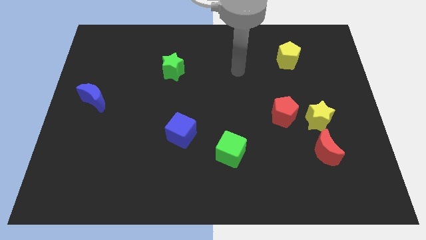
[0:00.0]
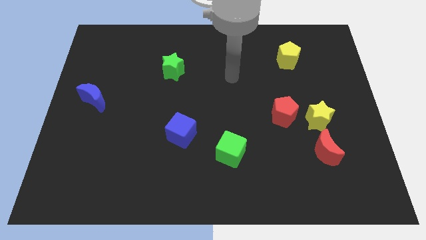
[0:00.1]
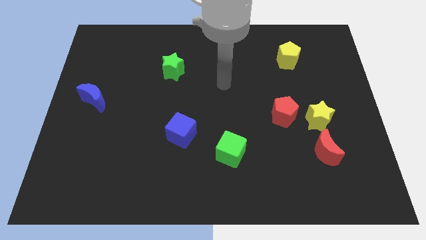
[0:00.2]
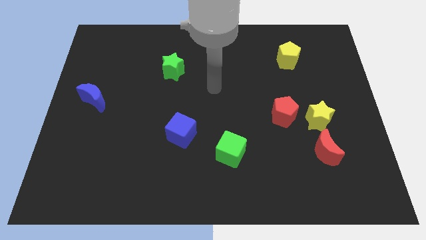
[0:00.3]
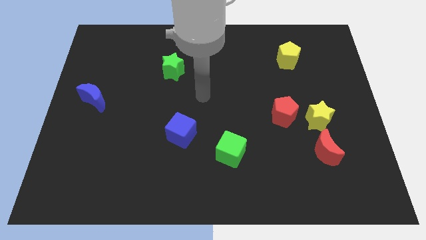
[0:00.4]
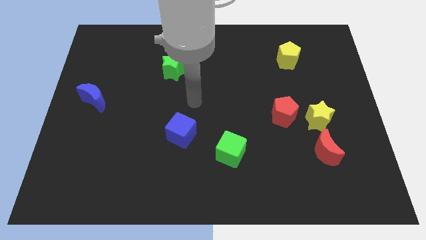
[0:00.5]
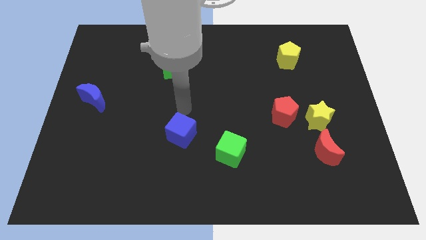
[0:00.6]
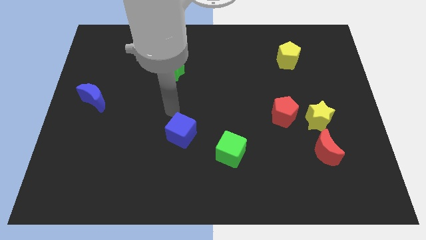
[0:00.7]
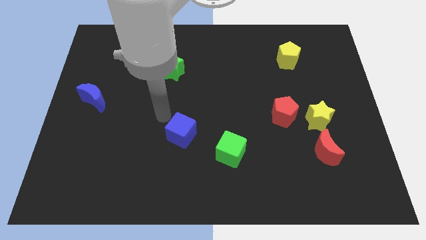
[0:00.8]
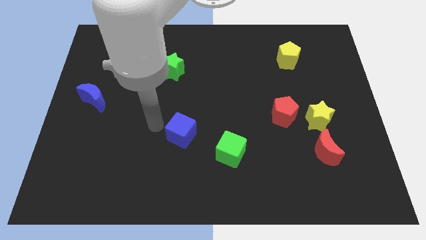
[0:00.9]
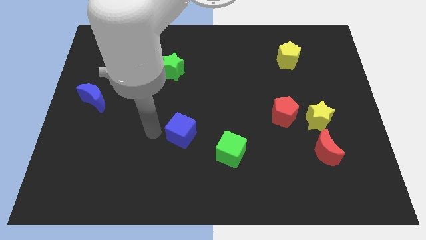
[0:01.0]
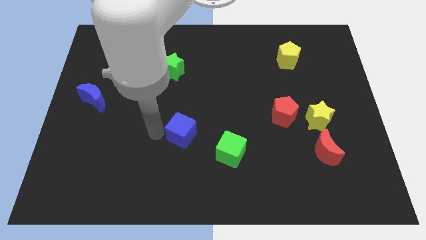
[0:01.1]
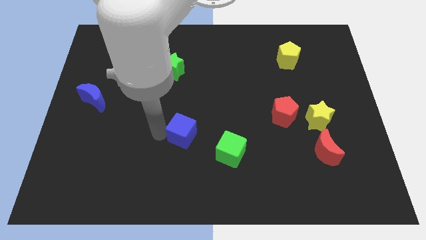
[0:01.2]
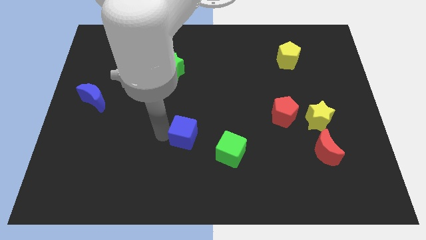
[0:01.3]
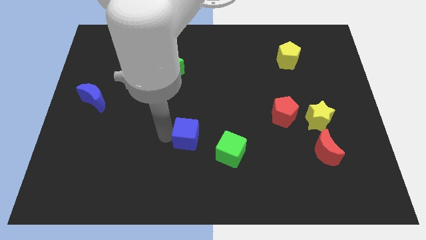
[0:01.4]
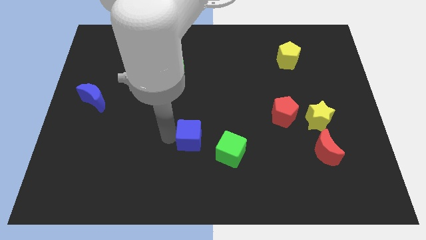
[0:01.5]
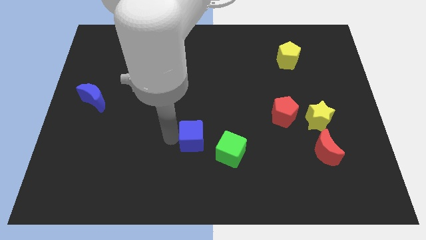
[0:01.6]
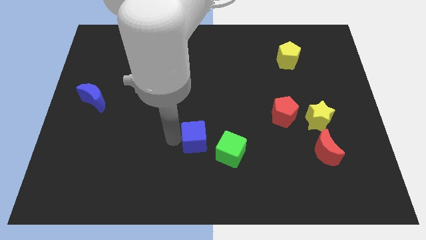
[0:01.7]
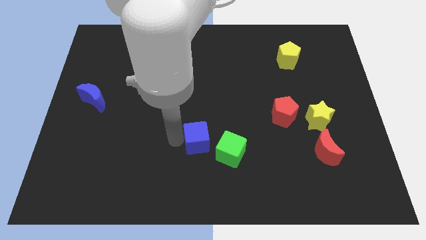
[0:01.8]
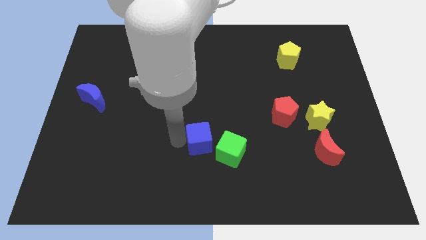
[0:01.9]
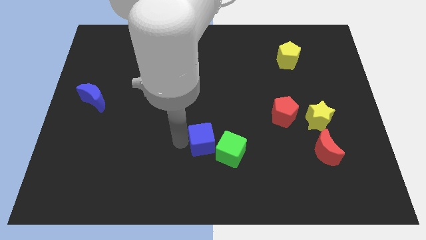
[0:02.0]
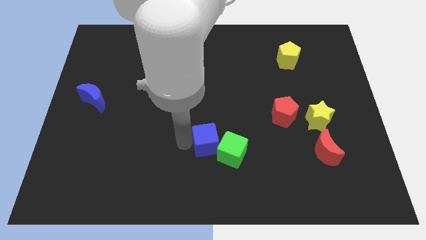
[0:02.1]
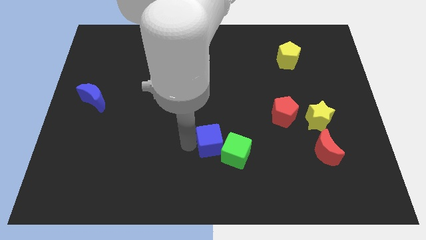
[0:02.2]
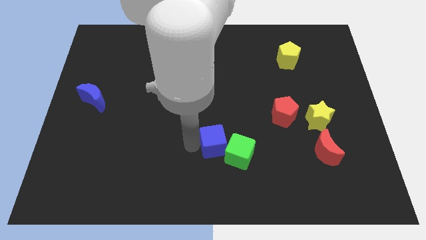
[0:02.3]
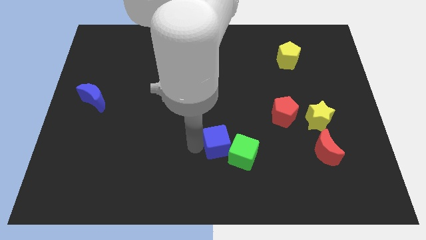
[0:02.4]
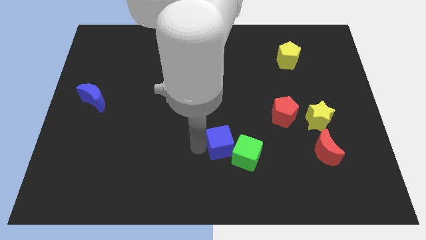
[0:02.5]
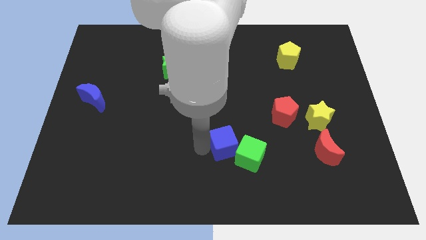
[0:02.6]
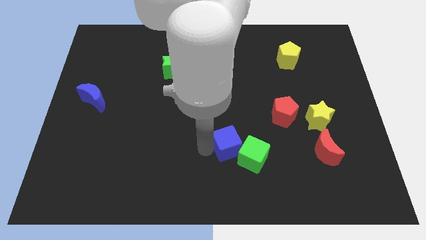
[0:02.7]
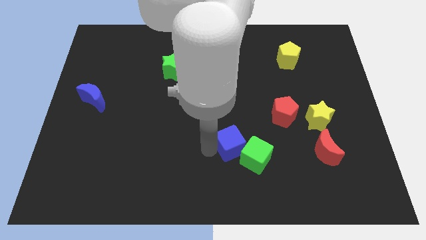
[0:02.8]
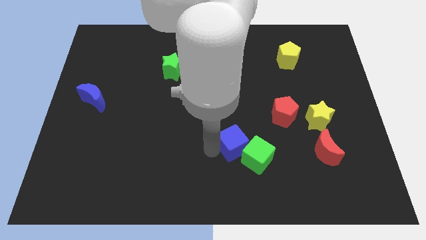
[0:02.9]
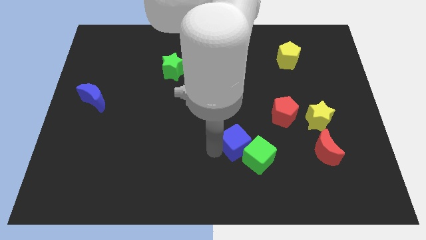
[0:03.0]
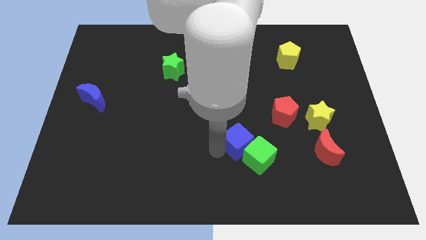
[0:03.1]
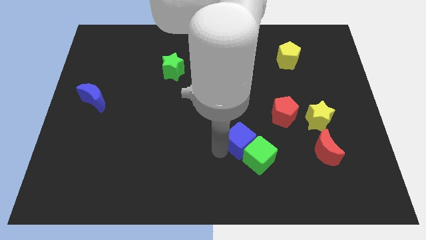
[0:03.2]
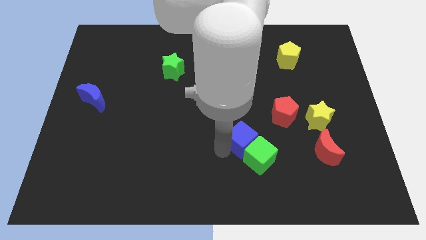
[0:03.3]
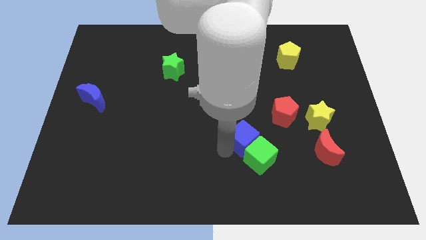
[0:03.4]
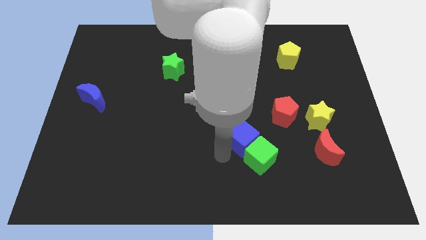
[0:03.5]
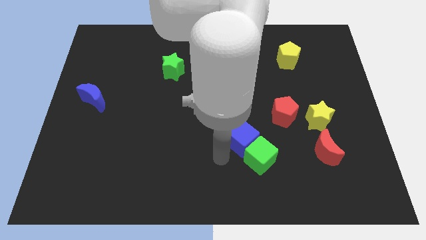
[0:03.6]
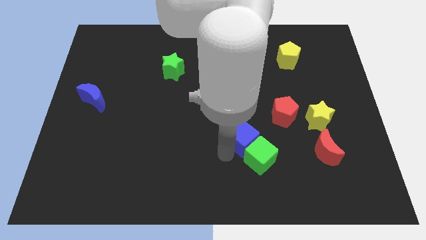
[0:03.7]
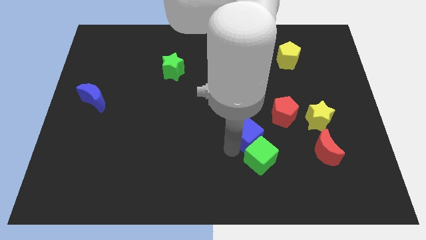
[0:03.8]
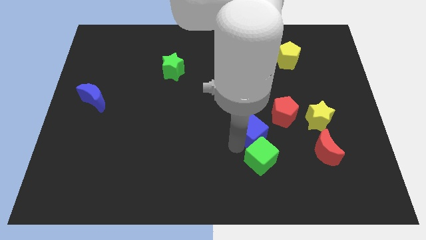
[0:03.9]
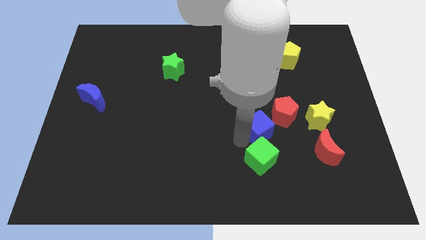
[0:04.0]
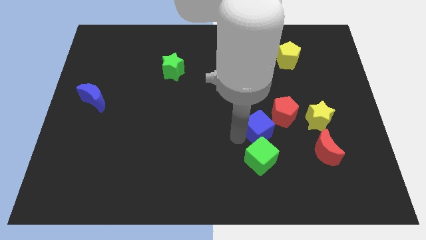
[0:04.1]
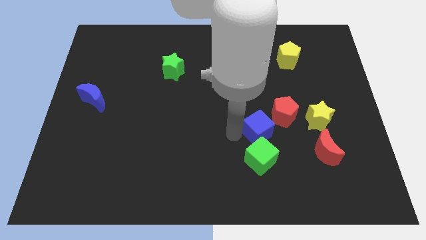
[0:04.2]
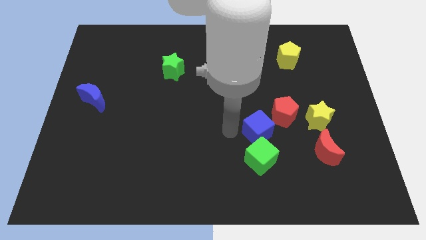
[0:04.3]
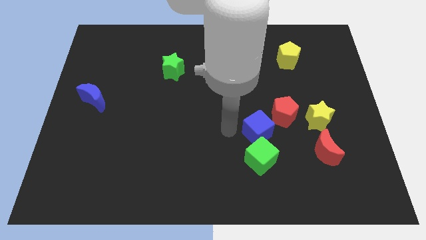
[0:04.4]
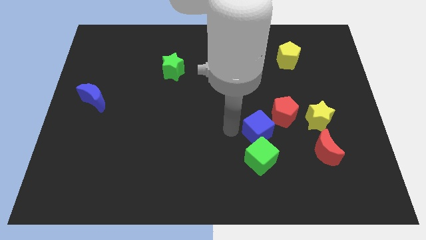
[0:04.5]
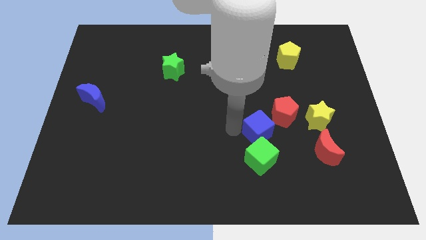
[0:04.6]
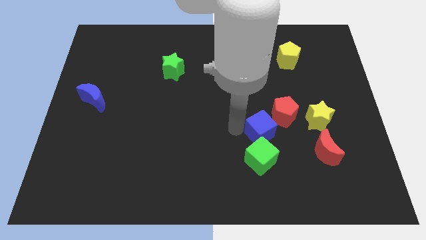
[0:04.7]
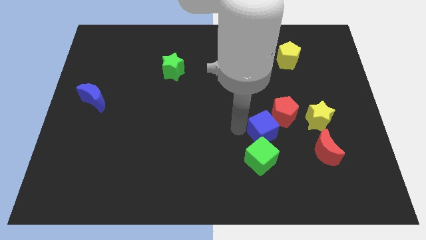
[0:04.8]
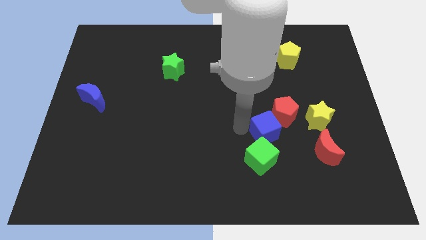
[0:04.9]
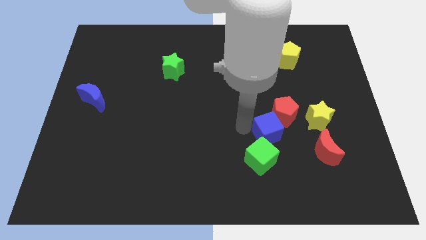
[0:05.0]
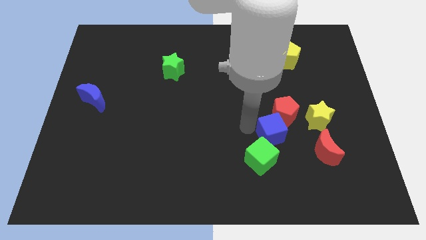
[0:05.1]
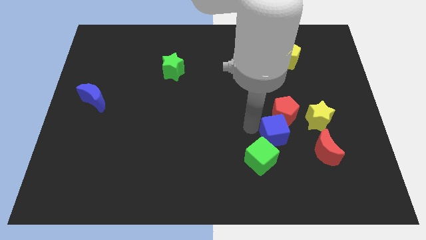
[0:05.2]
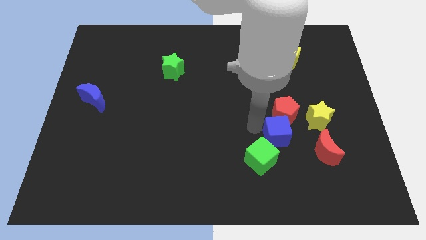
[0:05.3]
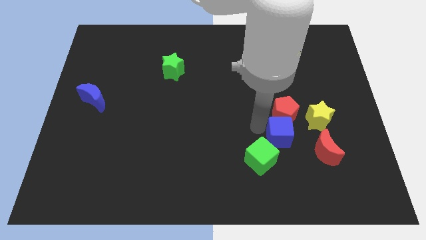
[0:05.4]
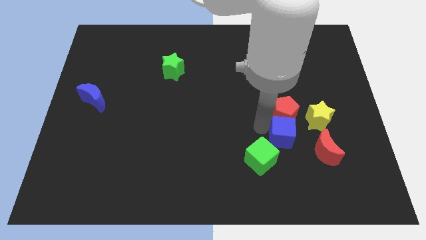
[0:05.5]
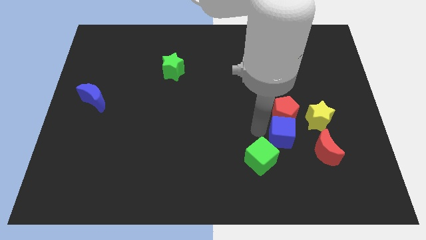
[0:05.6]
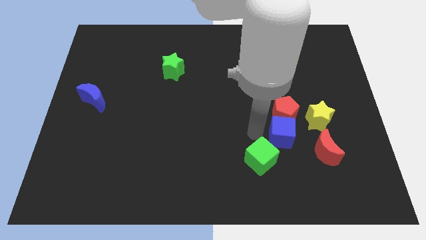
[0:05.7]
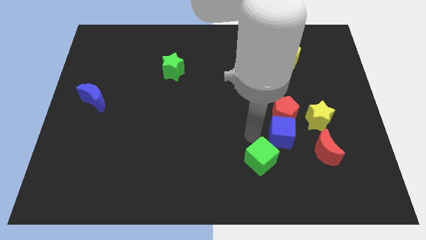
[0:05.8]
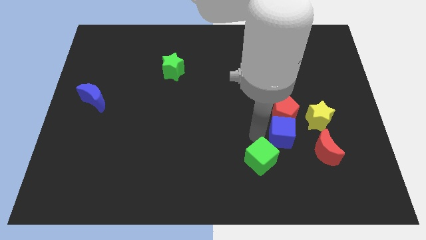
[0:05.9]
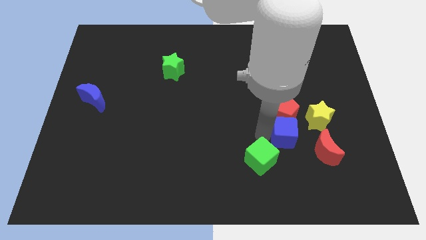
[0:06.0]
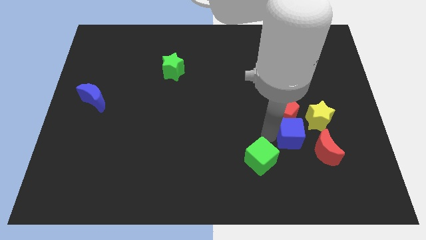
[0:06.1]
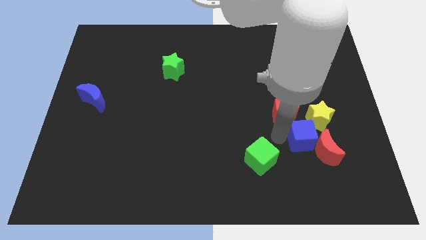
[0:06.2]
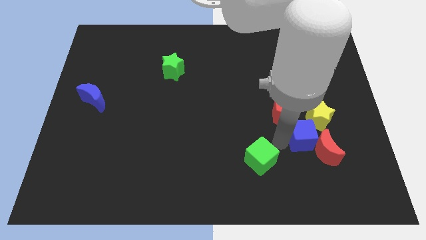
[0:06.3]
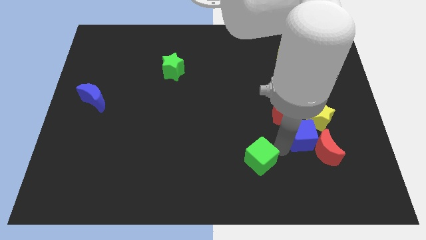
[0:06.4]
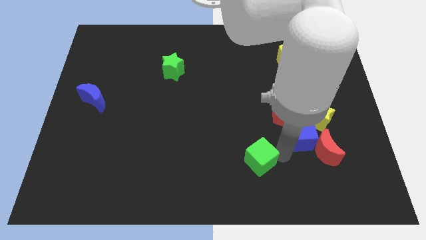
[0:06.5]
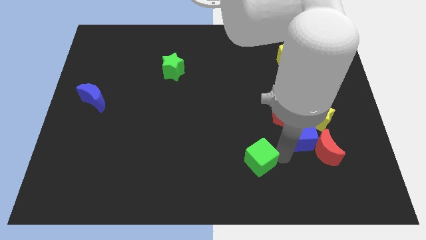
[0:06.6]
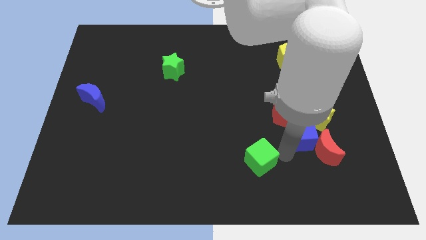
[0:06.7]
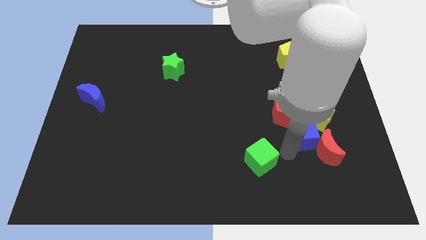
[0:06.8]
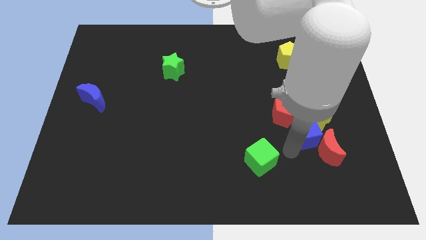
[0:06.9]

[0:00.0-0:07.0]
push the blue cube to the yellow star

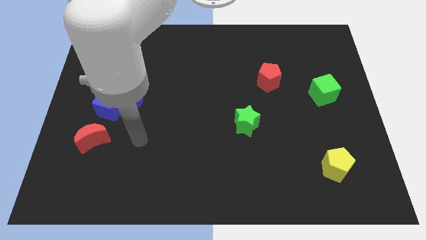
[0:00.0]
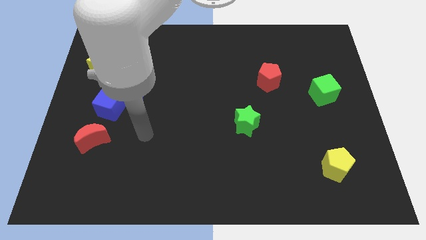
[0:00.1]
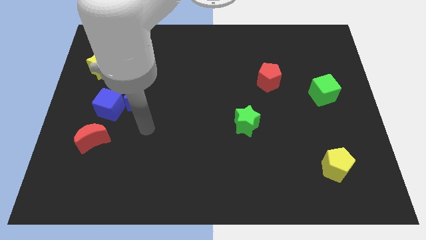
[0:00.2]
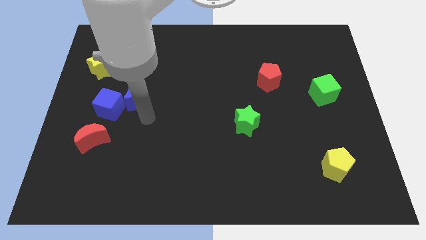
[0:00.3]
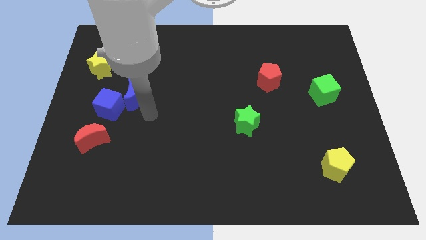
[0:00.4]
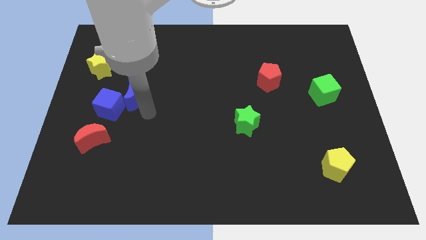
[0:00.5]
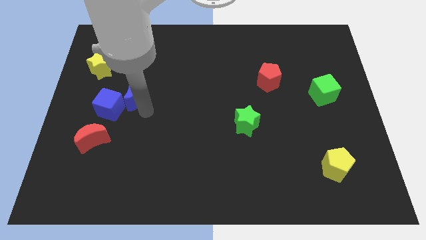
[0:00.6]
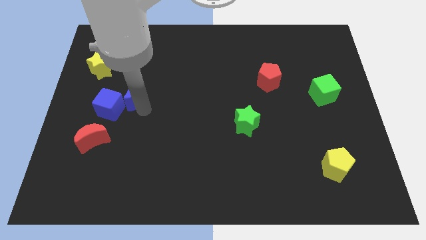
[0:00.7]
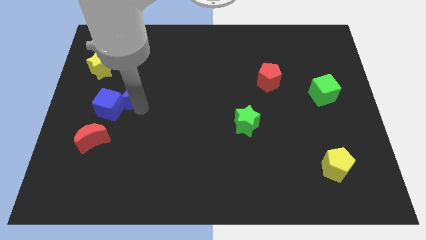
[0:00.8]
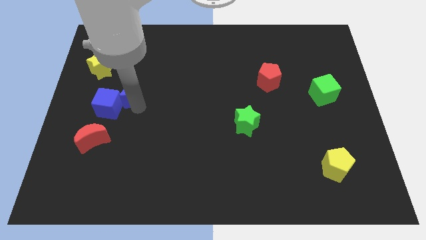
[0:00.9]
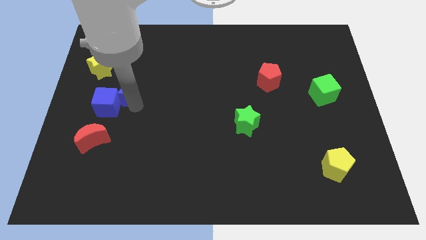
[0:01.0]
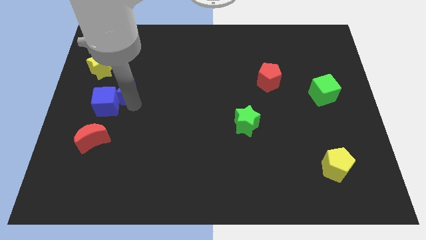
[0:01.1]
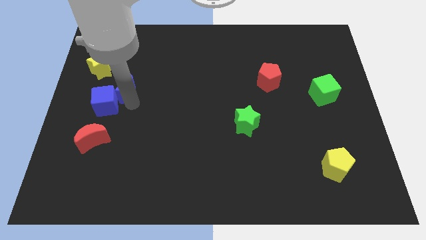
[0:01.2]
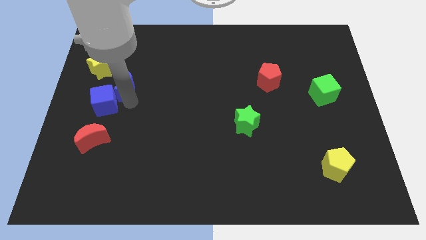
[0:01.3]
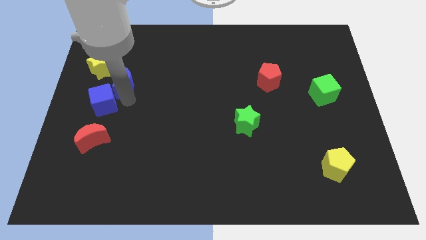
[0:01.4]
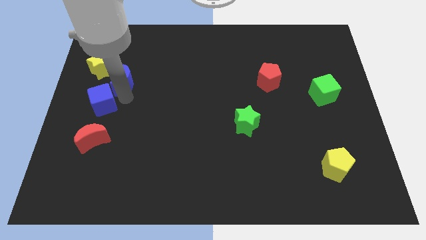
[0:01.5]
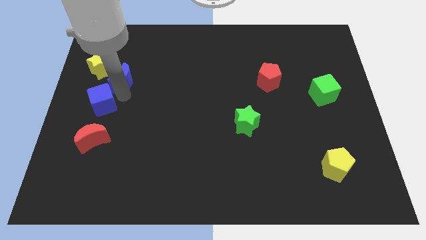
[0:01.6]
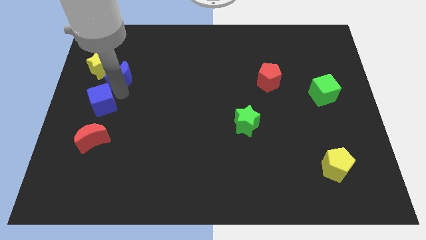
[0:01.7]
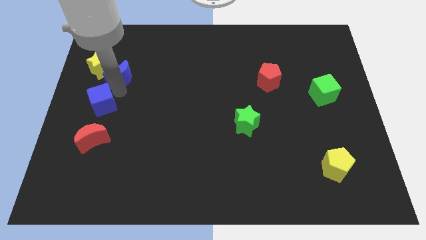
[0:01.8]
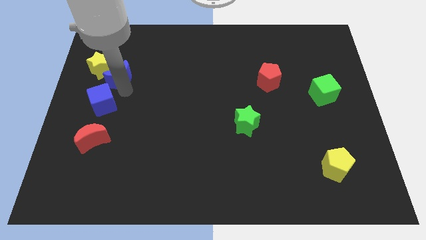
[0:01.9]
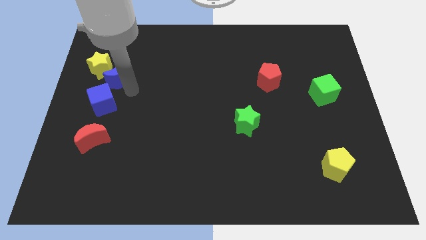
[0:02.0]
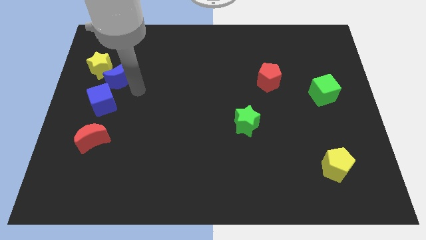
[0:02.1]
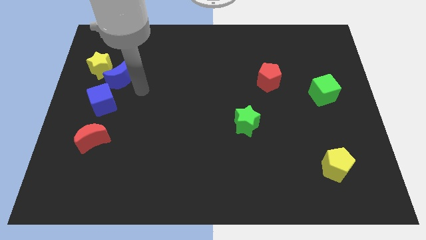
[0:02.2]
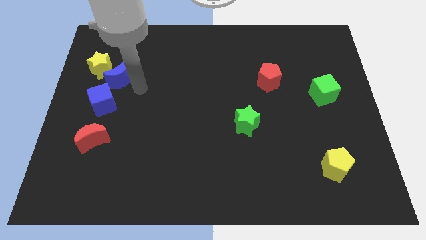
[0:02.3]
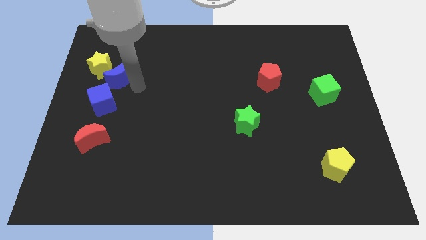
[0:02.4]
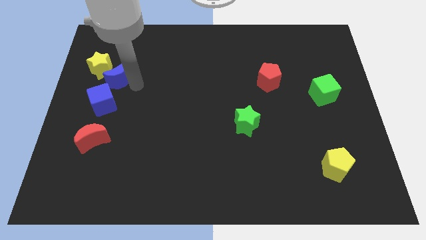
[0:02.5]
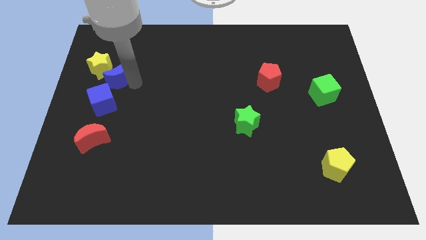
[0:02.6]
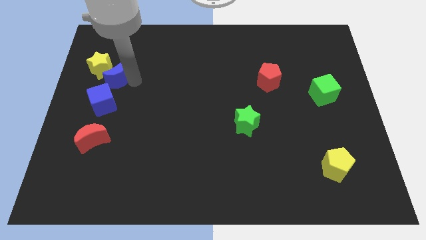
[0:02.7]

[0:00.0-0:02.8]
move the blue moon towards the yellow star
